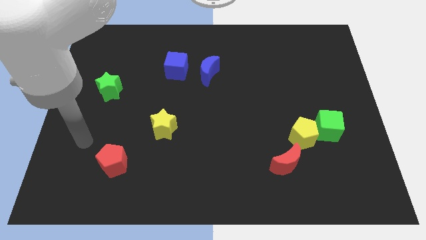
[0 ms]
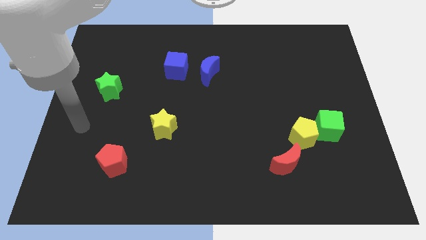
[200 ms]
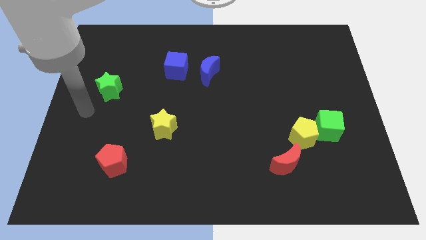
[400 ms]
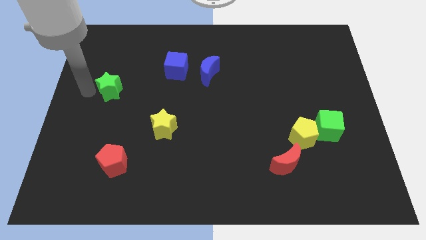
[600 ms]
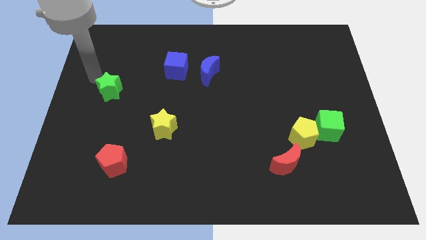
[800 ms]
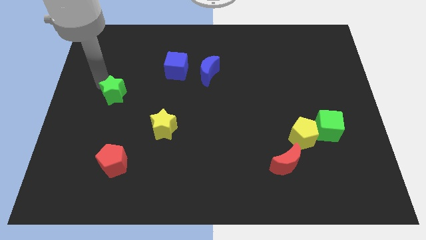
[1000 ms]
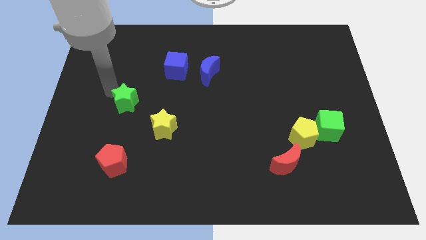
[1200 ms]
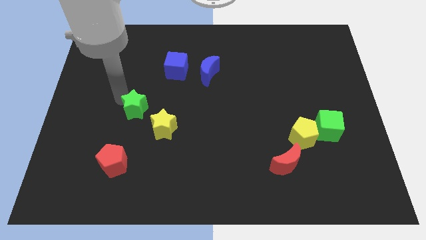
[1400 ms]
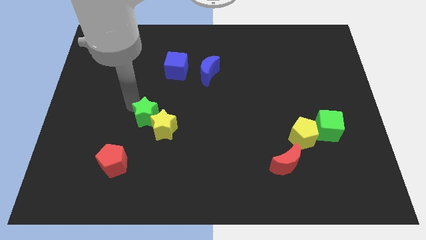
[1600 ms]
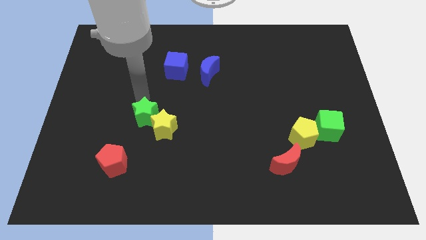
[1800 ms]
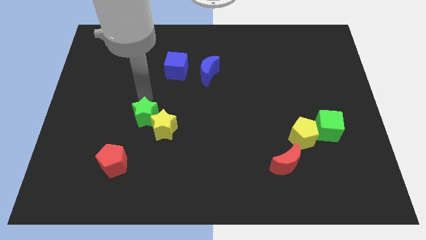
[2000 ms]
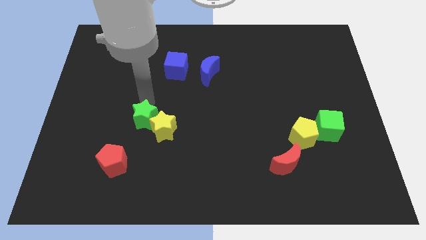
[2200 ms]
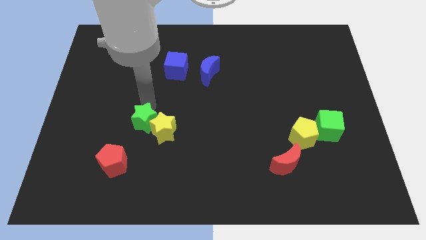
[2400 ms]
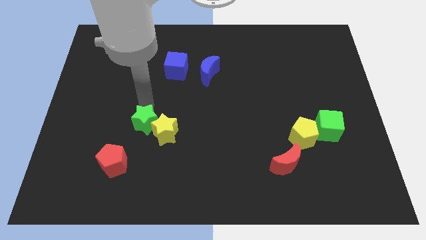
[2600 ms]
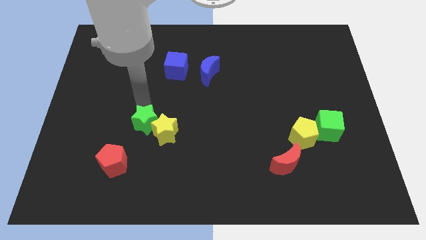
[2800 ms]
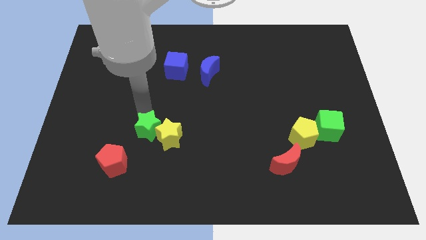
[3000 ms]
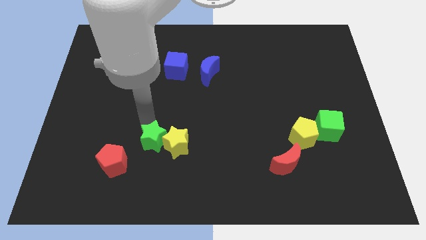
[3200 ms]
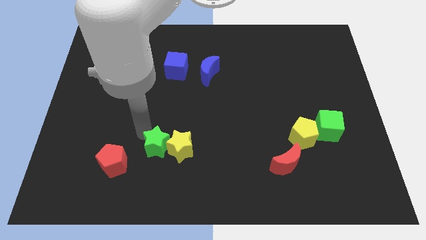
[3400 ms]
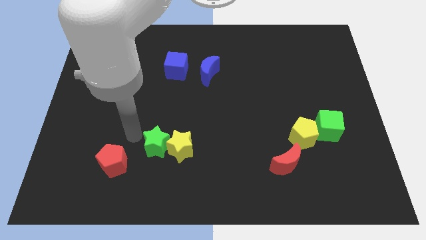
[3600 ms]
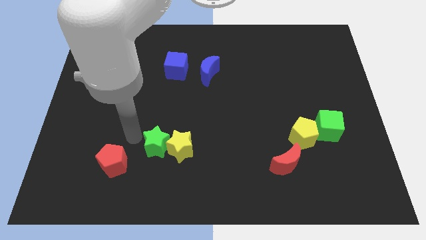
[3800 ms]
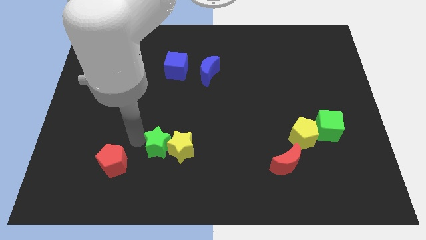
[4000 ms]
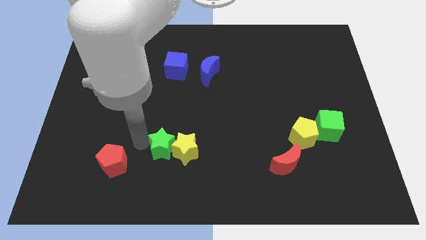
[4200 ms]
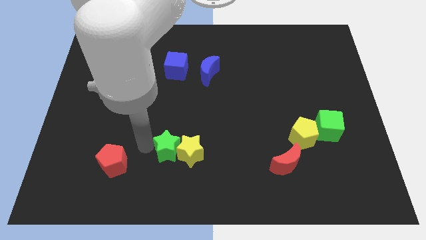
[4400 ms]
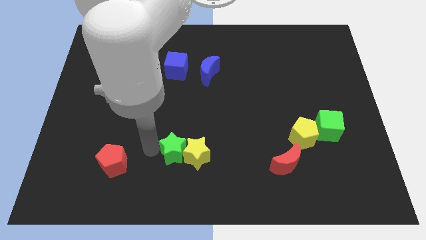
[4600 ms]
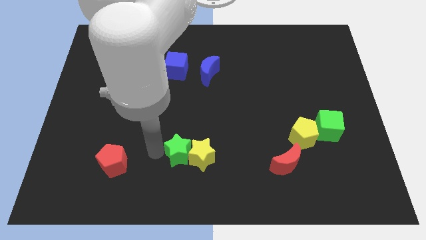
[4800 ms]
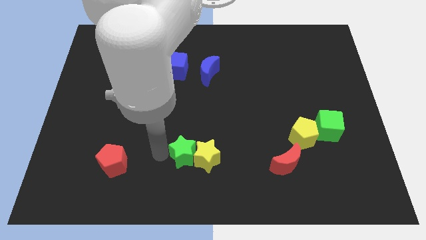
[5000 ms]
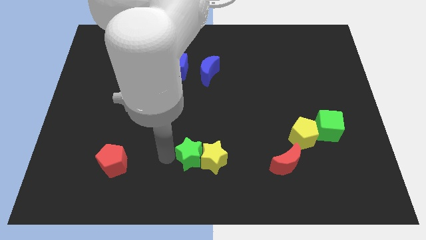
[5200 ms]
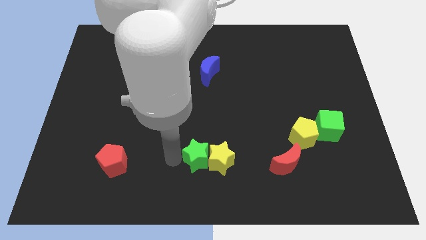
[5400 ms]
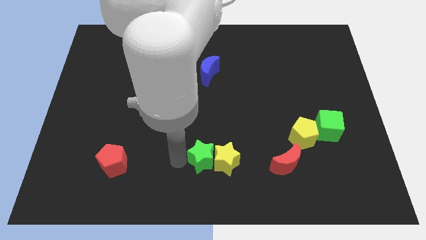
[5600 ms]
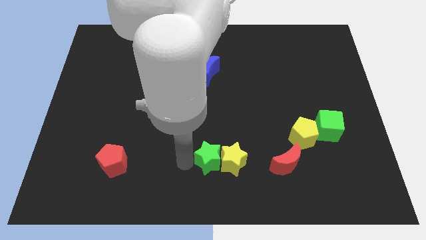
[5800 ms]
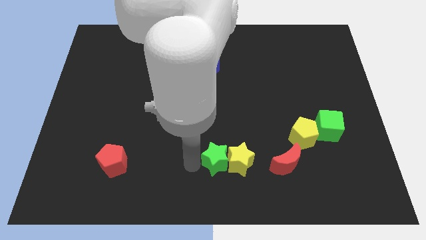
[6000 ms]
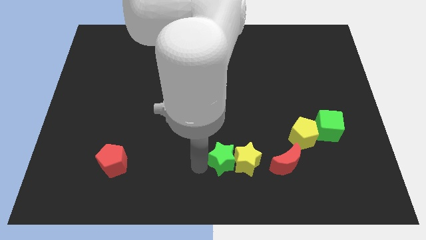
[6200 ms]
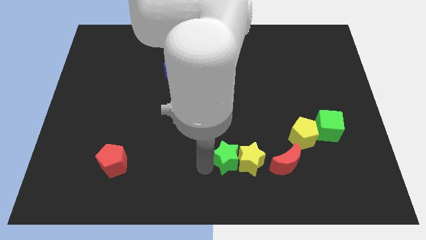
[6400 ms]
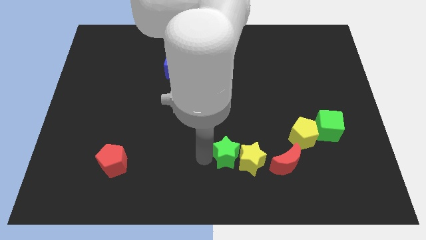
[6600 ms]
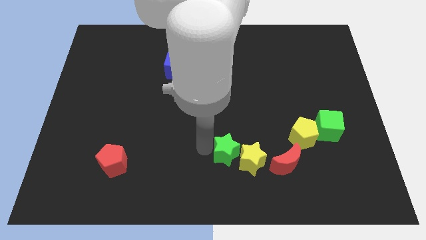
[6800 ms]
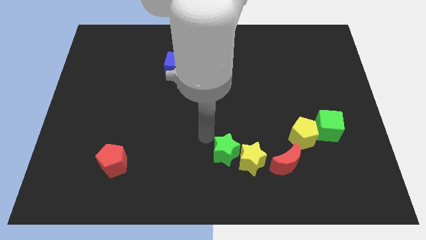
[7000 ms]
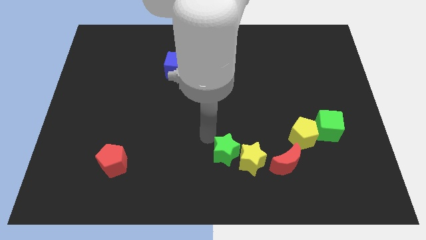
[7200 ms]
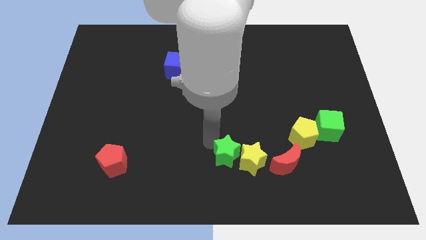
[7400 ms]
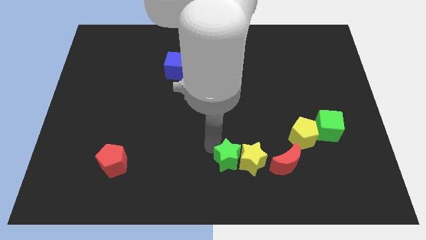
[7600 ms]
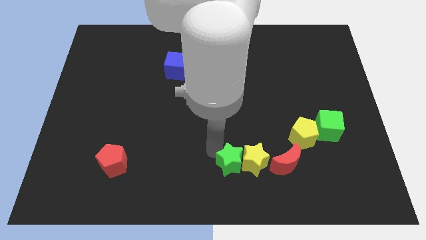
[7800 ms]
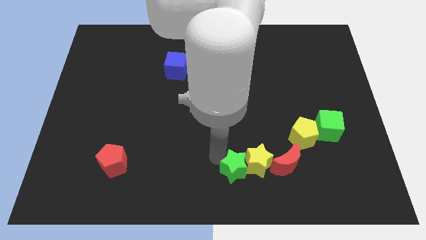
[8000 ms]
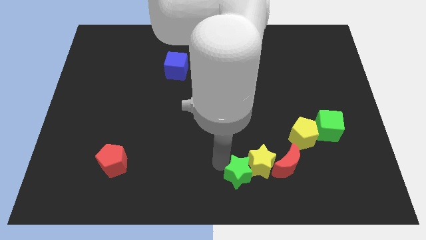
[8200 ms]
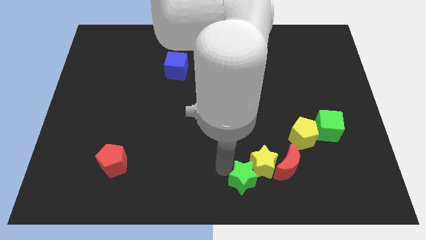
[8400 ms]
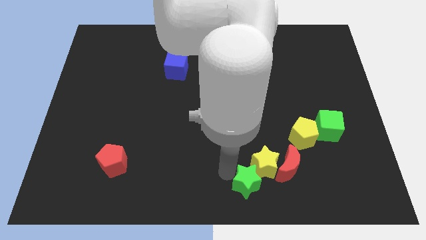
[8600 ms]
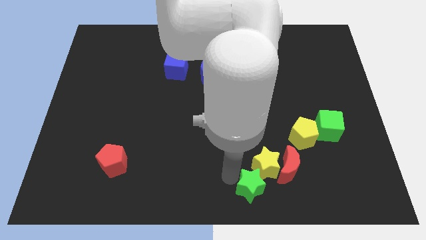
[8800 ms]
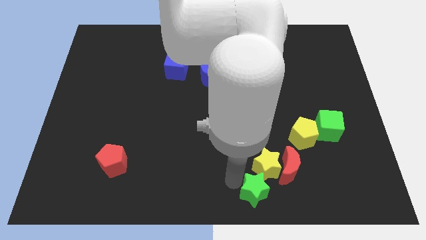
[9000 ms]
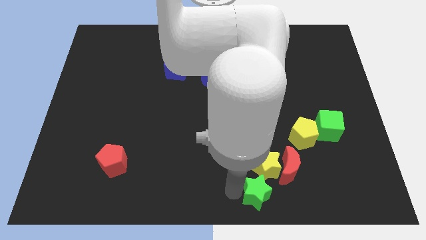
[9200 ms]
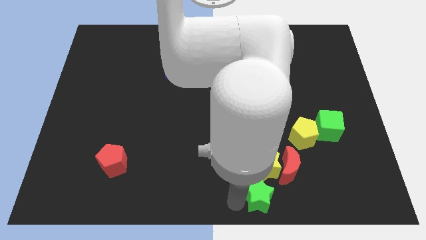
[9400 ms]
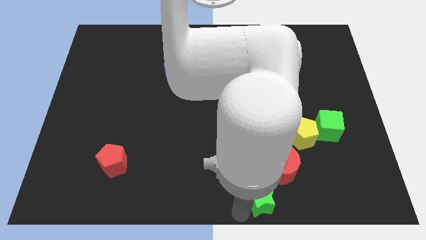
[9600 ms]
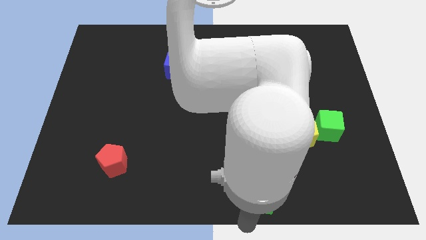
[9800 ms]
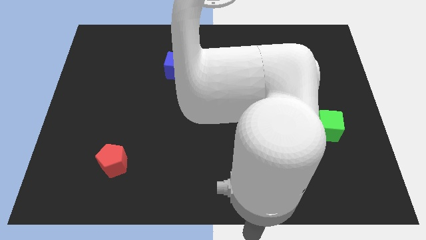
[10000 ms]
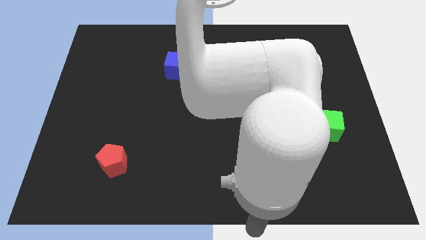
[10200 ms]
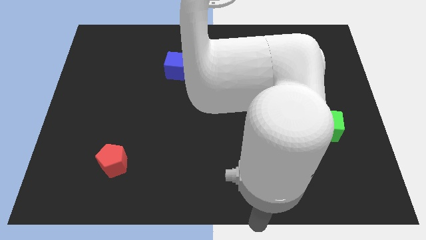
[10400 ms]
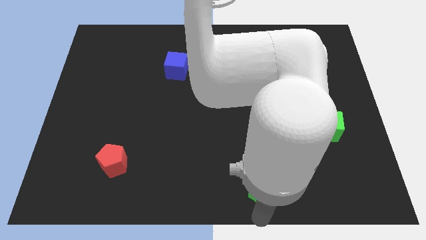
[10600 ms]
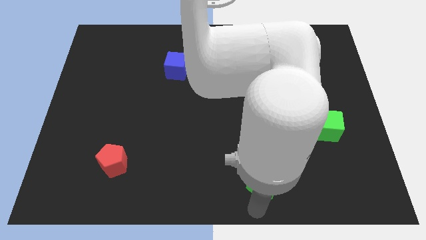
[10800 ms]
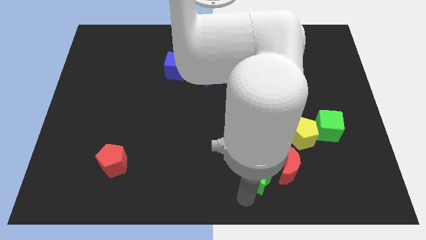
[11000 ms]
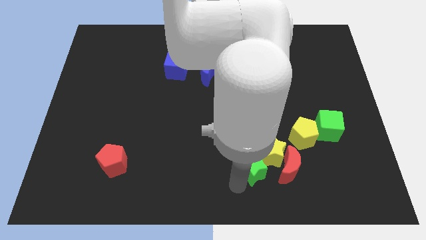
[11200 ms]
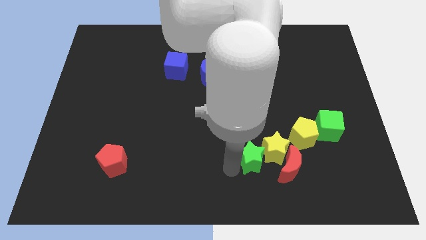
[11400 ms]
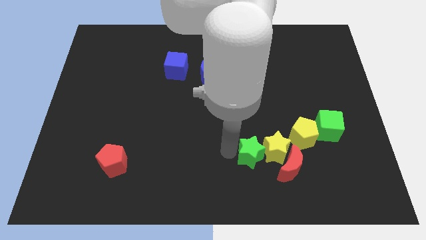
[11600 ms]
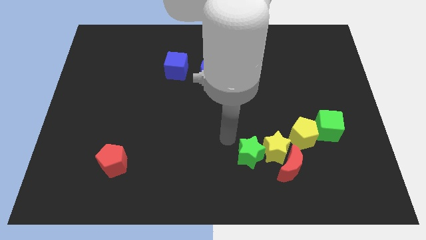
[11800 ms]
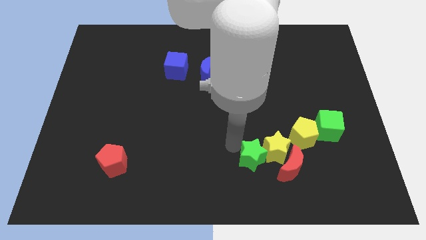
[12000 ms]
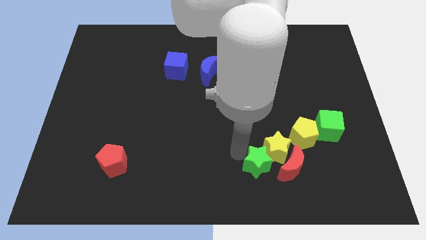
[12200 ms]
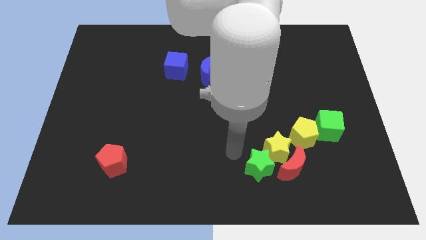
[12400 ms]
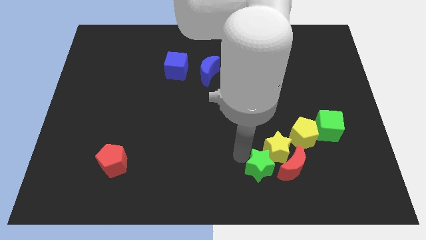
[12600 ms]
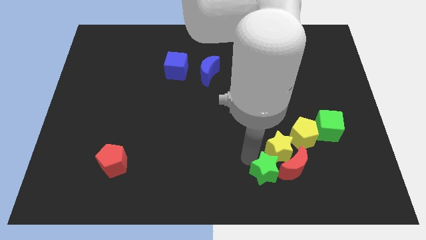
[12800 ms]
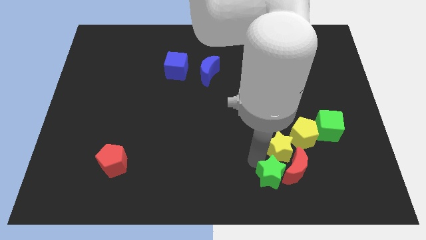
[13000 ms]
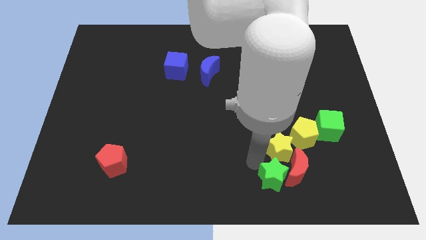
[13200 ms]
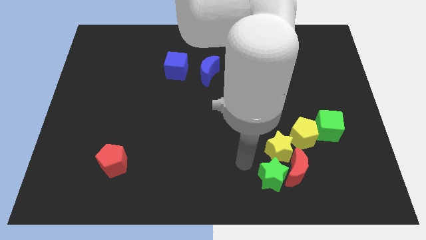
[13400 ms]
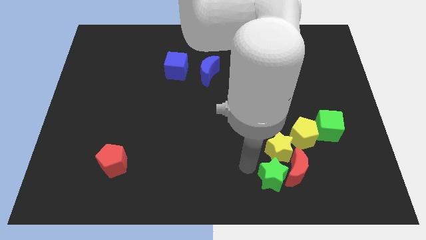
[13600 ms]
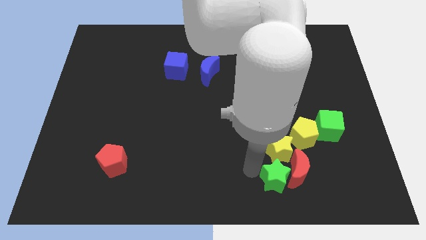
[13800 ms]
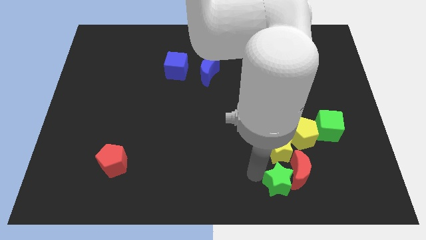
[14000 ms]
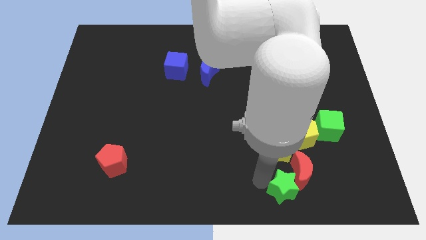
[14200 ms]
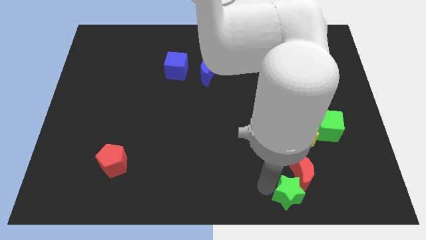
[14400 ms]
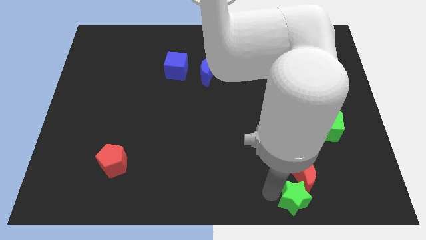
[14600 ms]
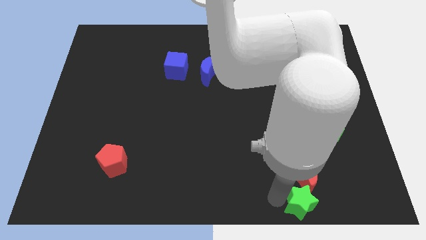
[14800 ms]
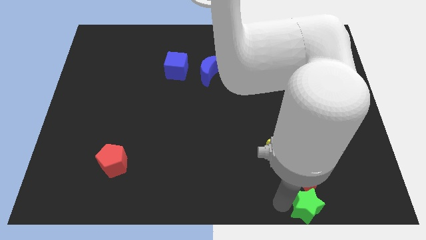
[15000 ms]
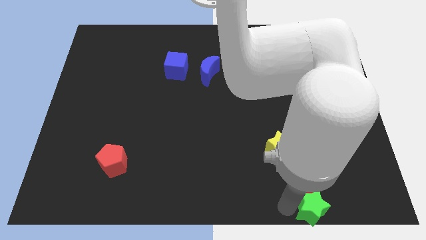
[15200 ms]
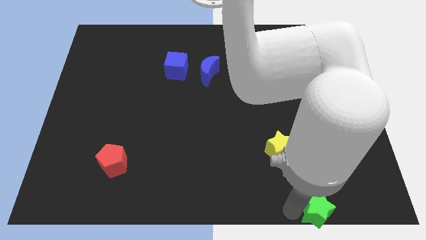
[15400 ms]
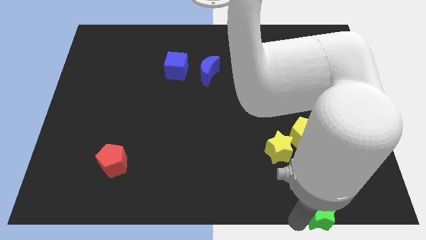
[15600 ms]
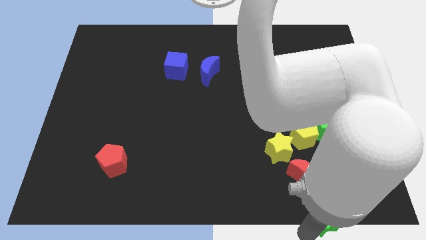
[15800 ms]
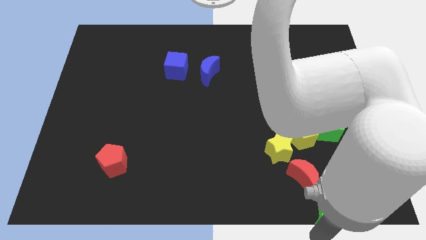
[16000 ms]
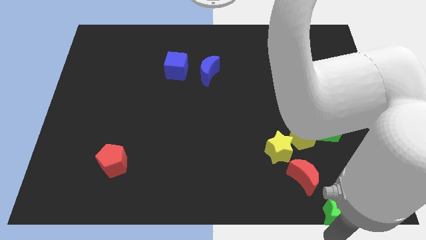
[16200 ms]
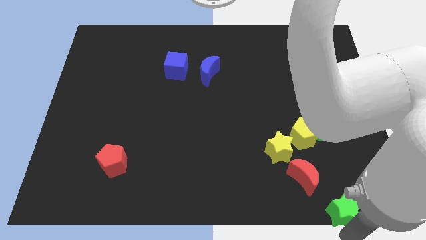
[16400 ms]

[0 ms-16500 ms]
push the green star to the bottom right of the board
